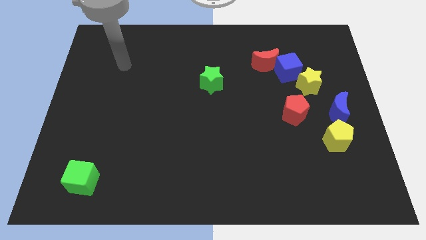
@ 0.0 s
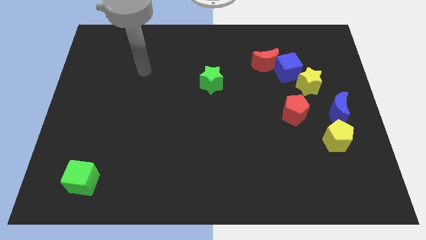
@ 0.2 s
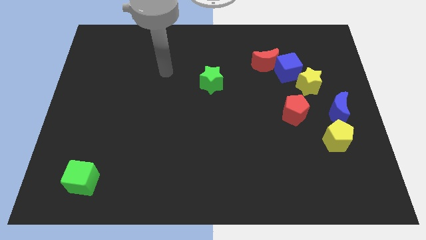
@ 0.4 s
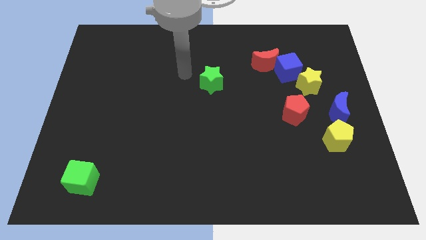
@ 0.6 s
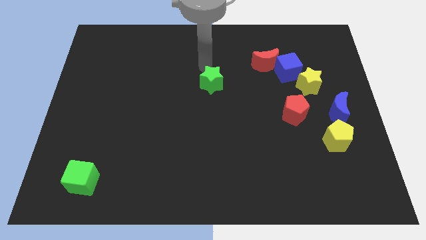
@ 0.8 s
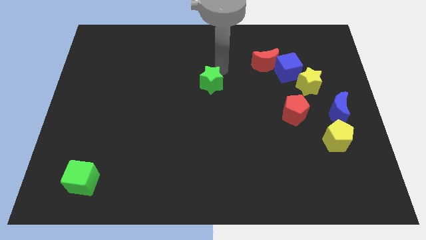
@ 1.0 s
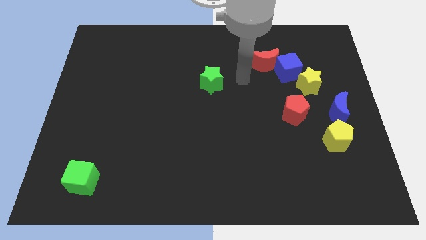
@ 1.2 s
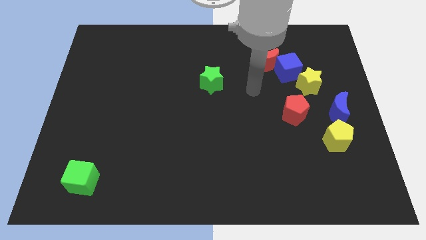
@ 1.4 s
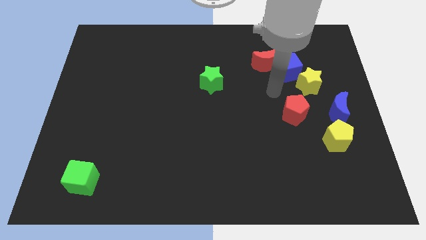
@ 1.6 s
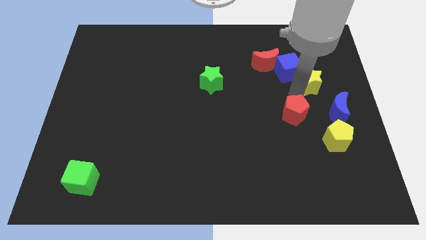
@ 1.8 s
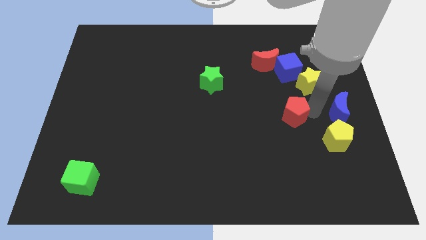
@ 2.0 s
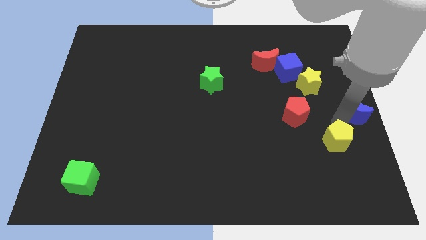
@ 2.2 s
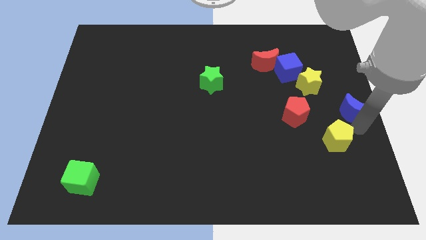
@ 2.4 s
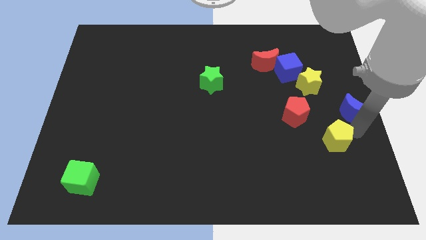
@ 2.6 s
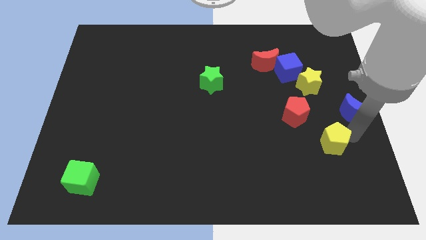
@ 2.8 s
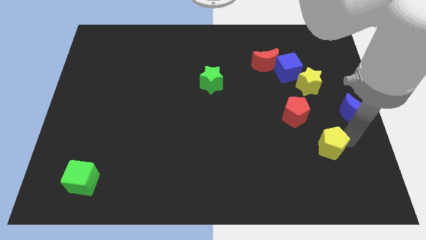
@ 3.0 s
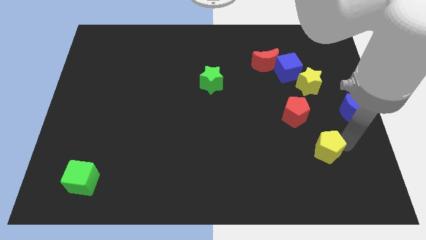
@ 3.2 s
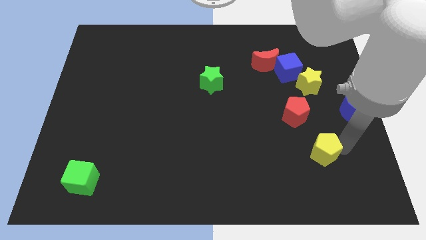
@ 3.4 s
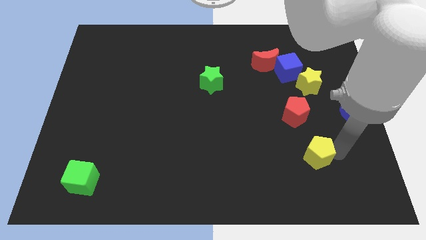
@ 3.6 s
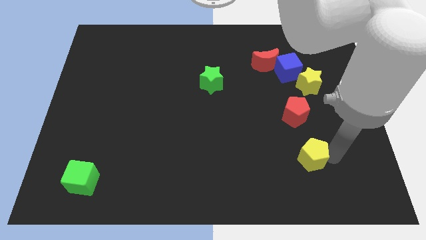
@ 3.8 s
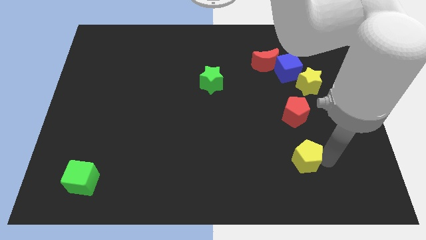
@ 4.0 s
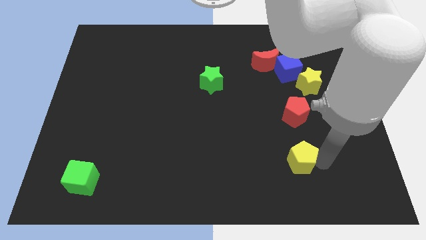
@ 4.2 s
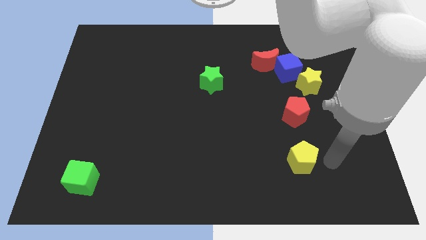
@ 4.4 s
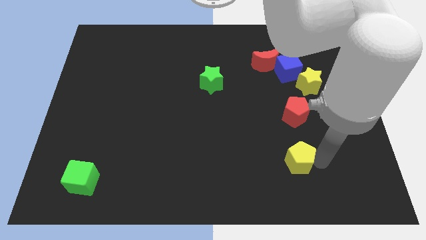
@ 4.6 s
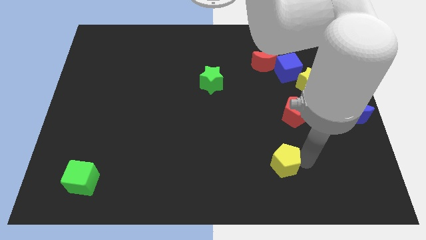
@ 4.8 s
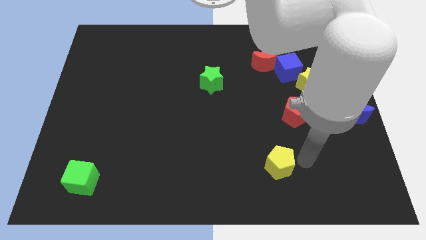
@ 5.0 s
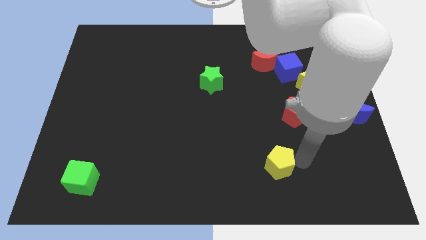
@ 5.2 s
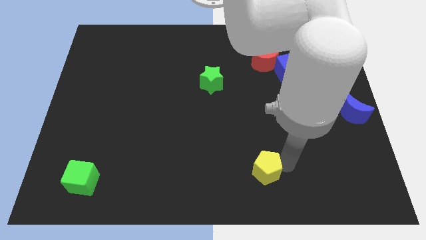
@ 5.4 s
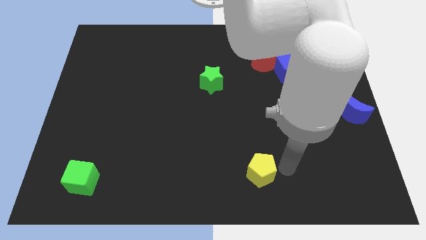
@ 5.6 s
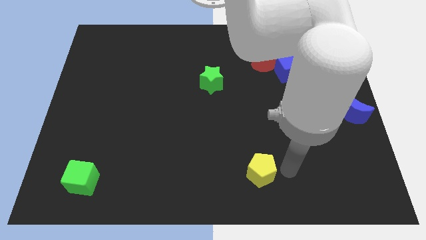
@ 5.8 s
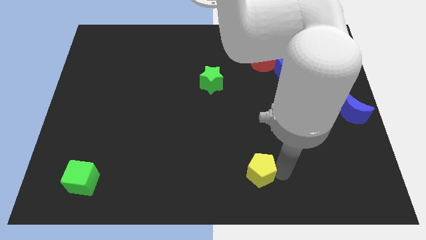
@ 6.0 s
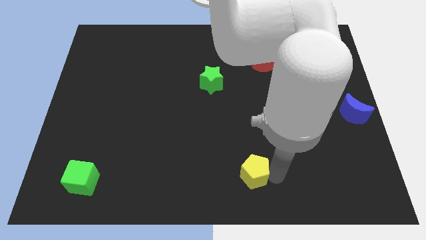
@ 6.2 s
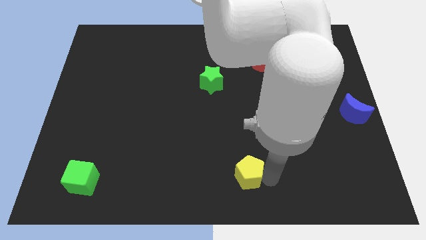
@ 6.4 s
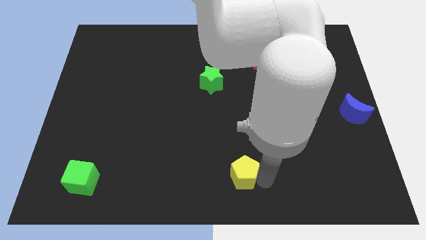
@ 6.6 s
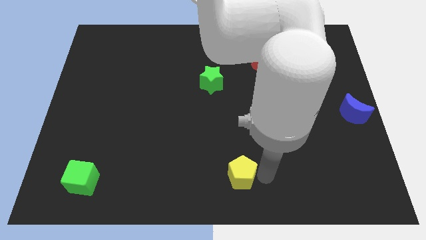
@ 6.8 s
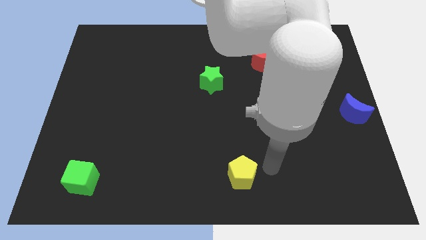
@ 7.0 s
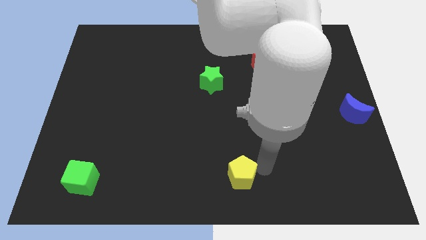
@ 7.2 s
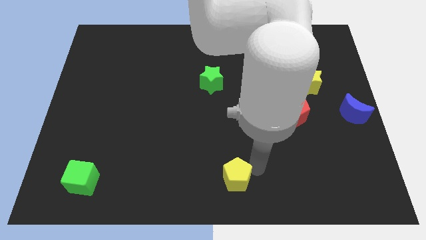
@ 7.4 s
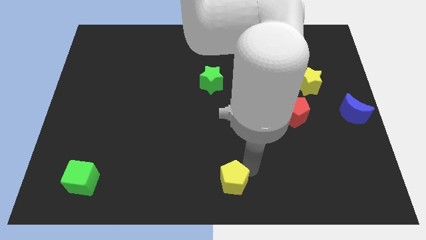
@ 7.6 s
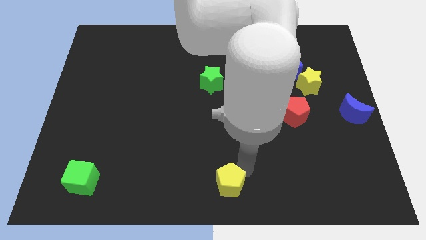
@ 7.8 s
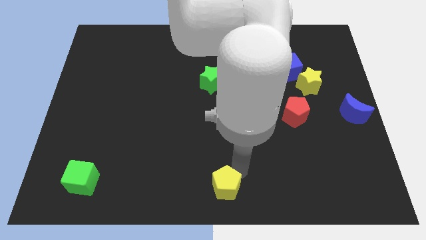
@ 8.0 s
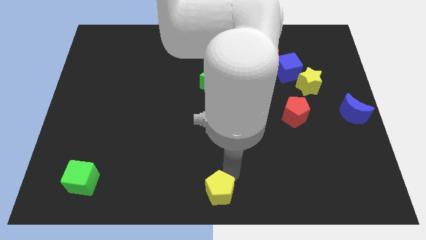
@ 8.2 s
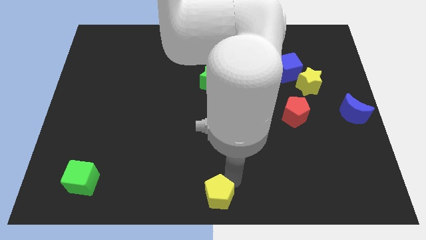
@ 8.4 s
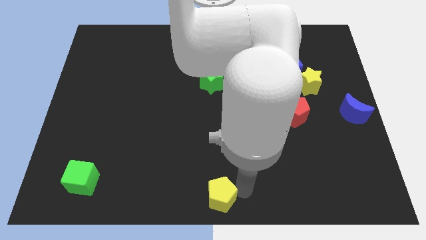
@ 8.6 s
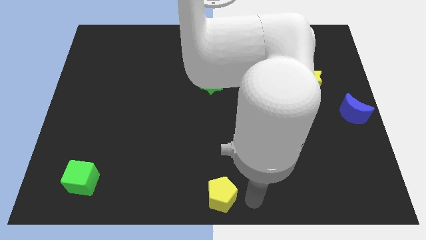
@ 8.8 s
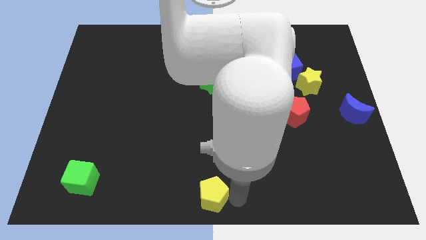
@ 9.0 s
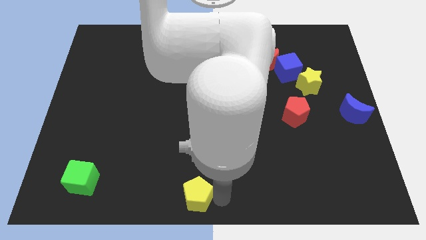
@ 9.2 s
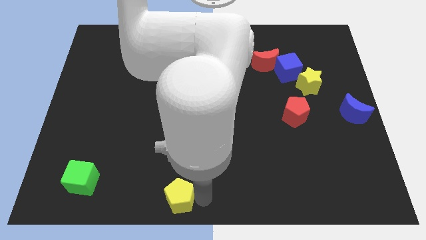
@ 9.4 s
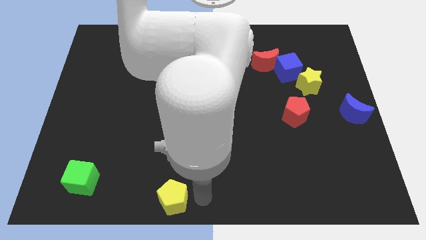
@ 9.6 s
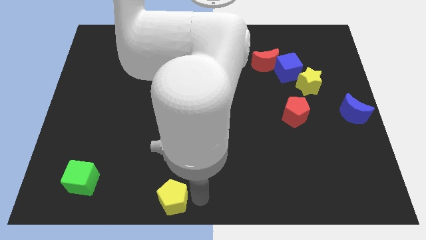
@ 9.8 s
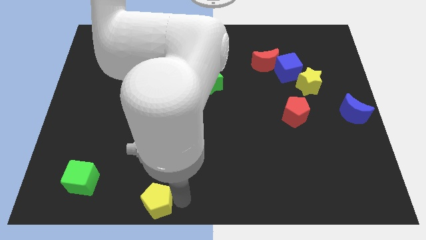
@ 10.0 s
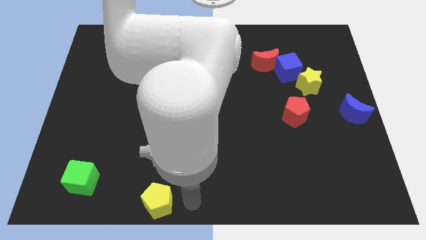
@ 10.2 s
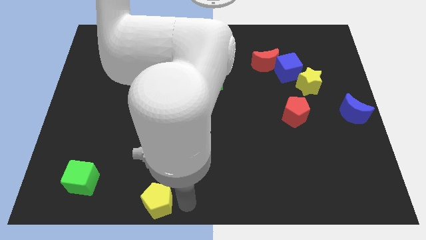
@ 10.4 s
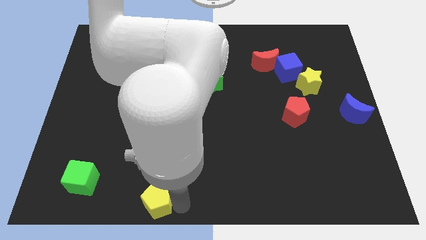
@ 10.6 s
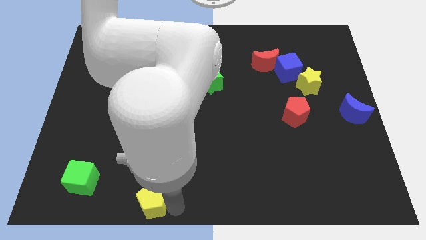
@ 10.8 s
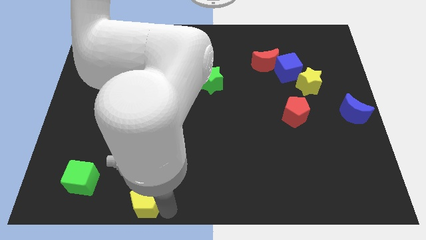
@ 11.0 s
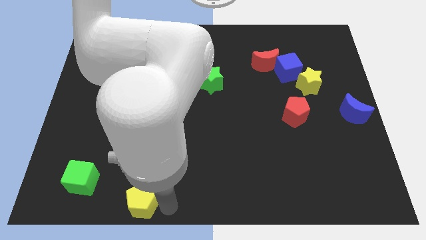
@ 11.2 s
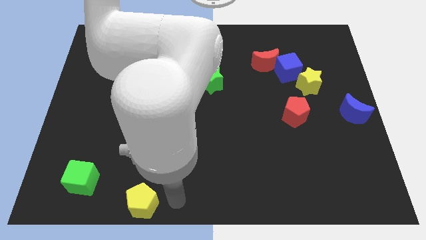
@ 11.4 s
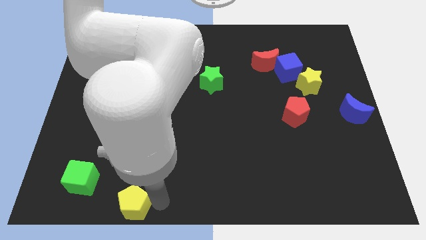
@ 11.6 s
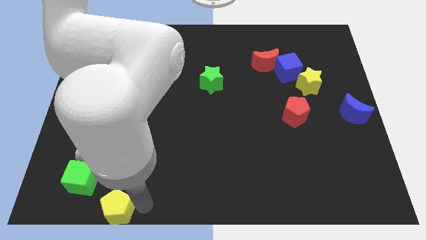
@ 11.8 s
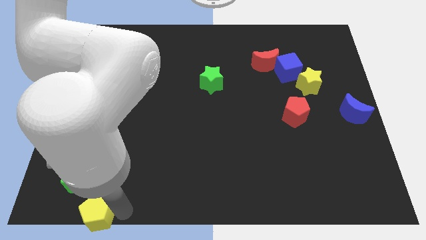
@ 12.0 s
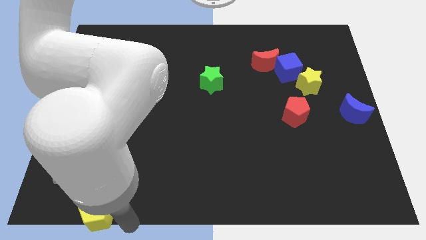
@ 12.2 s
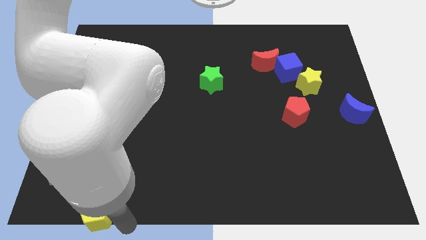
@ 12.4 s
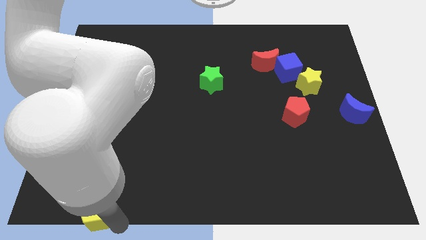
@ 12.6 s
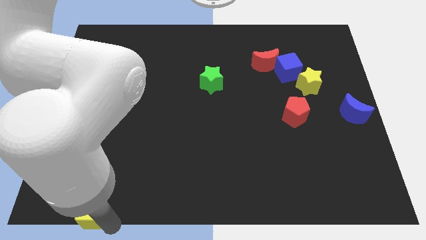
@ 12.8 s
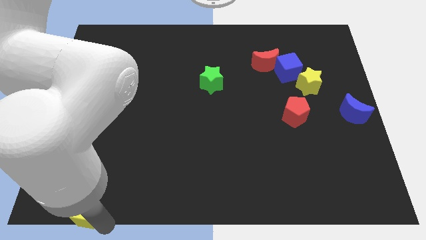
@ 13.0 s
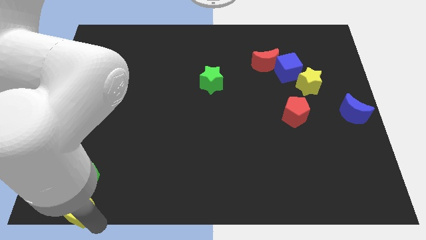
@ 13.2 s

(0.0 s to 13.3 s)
slide the yellow pentagon to the bottom left corner
